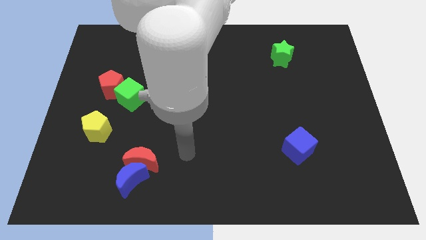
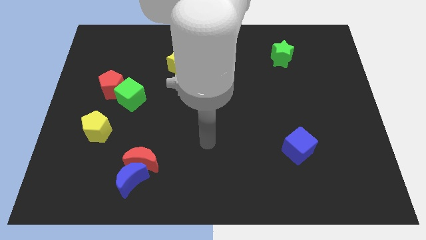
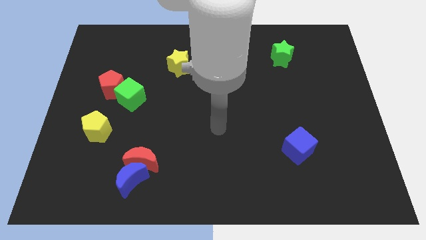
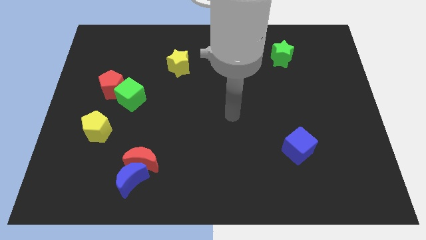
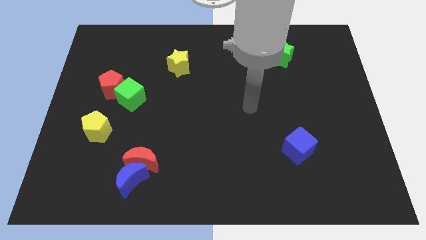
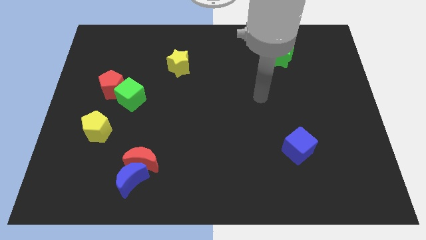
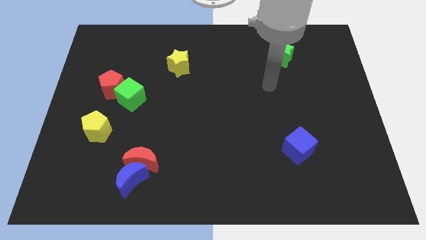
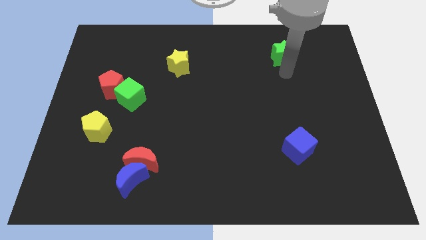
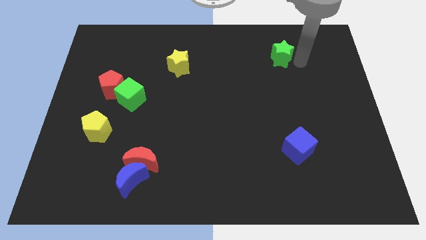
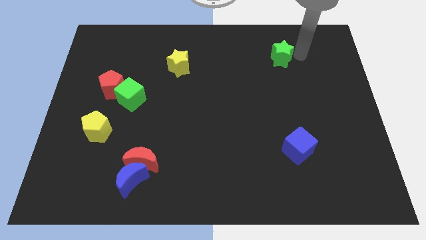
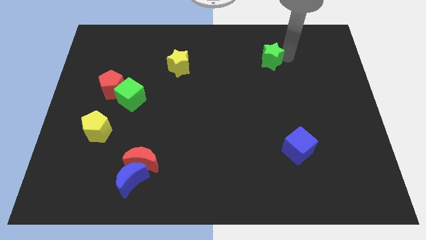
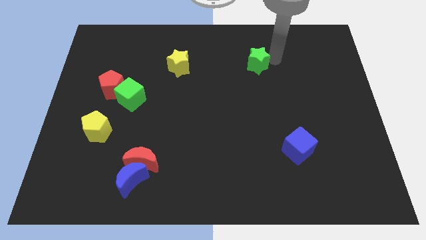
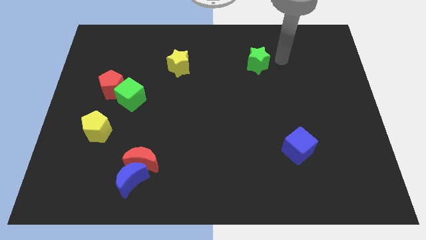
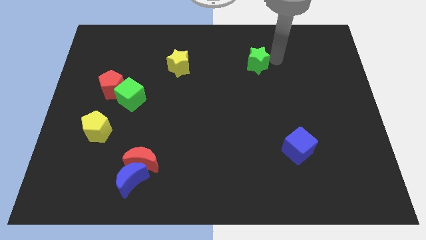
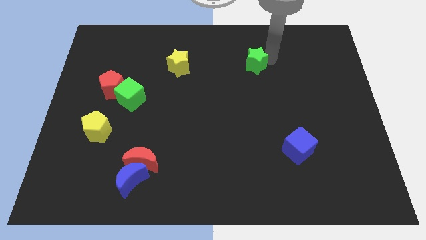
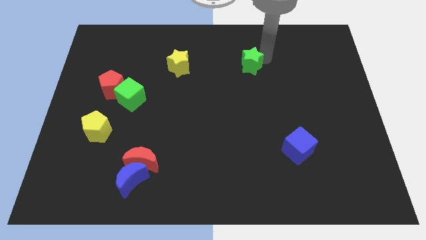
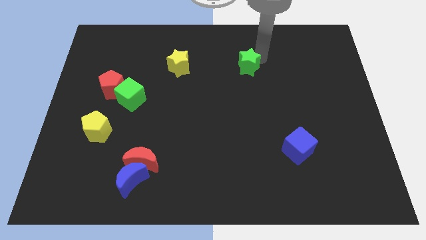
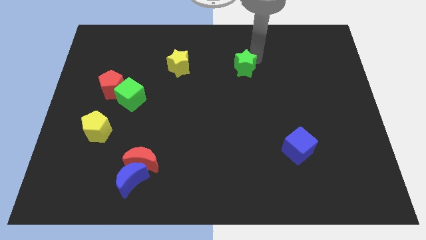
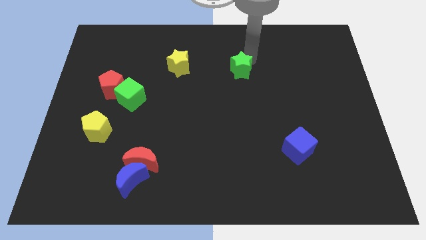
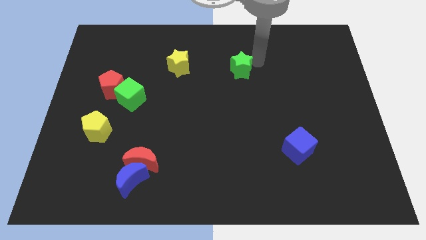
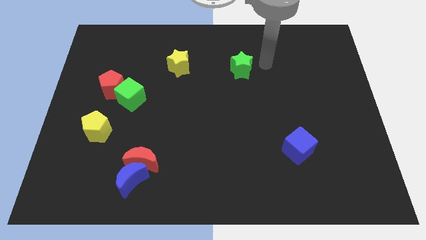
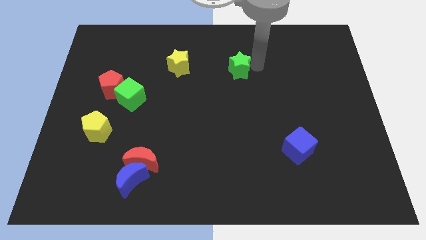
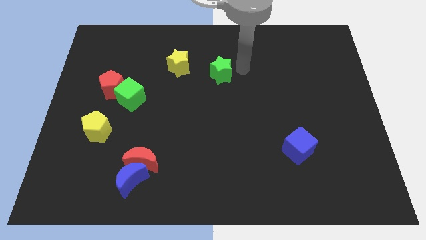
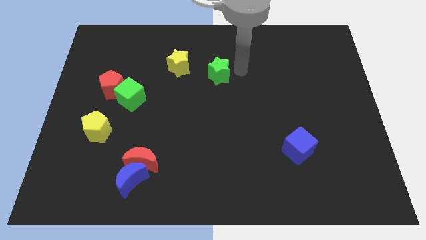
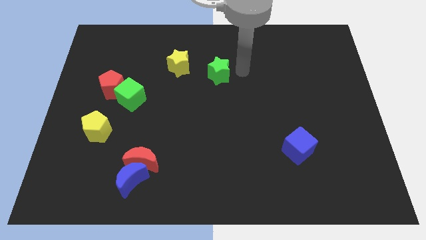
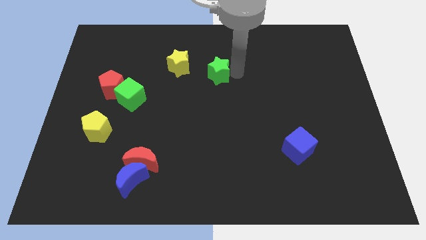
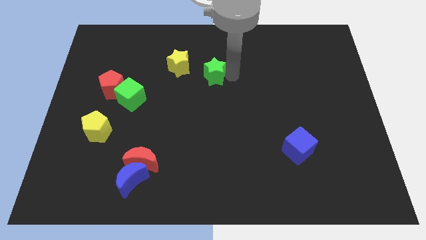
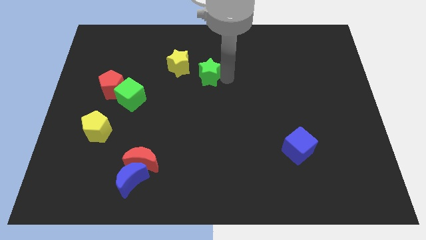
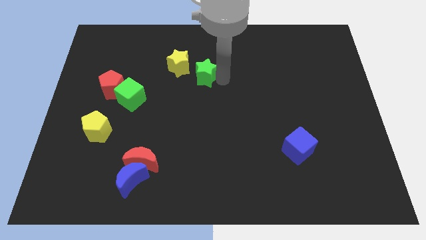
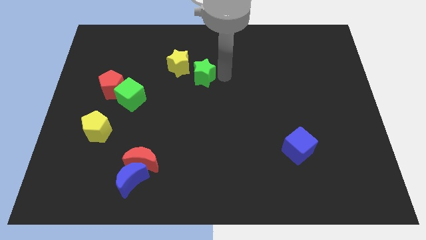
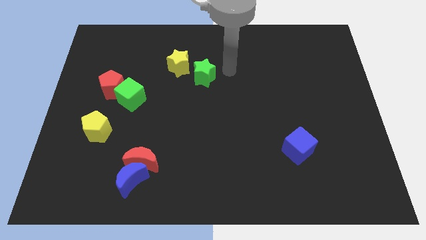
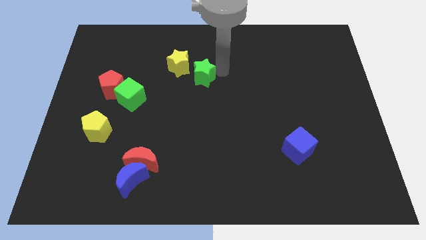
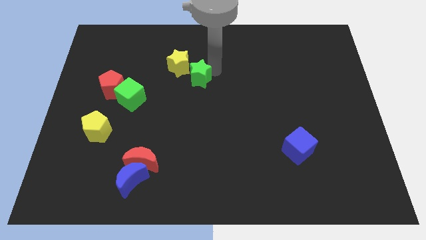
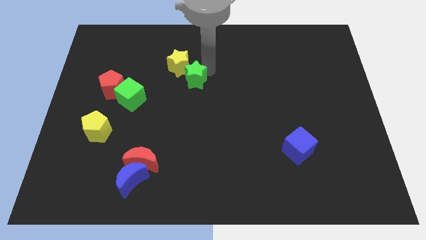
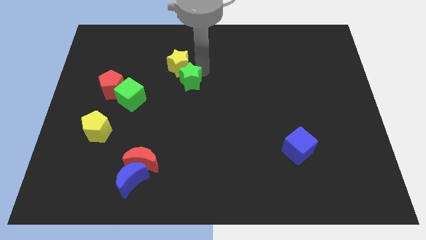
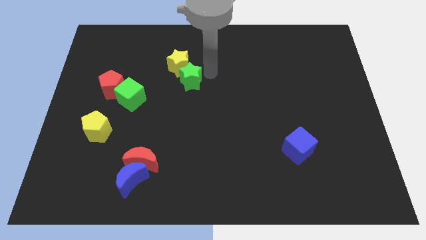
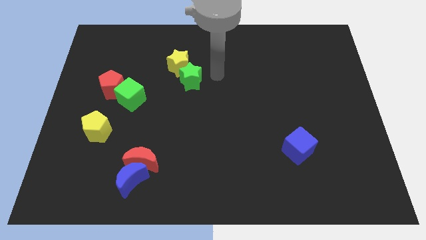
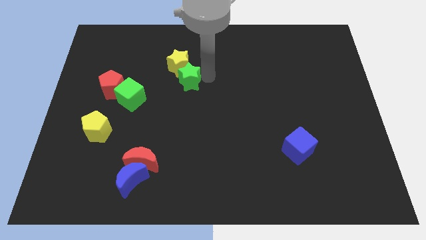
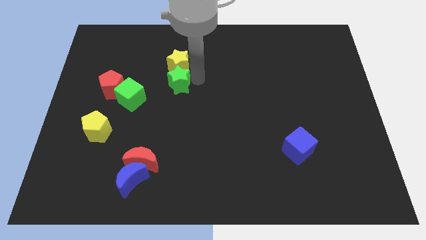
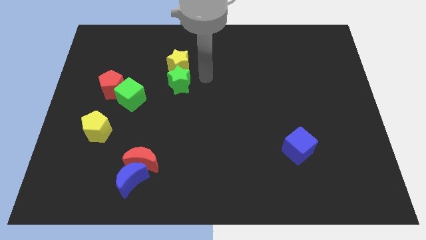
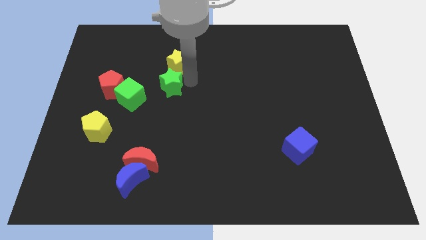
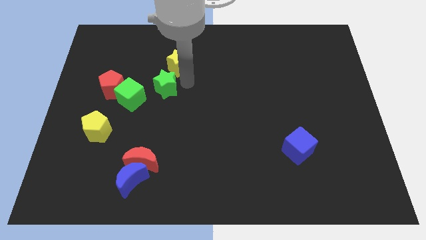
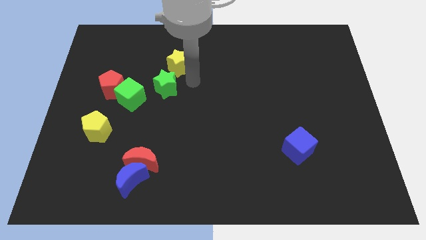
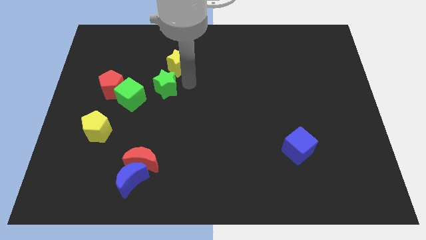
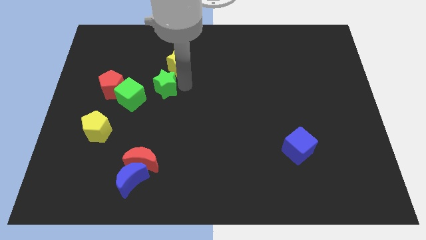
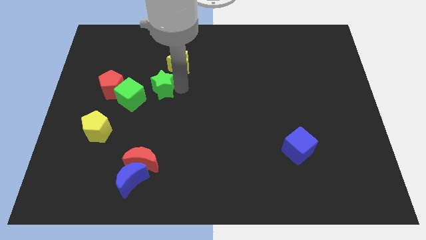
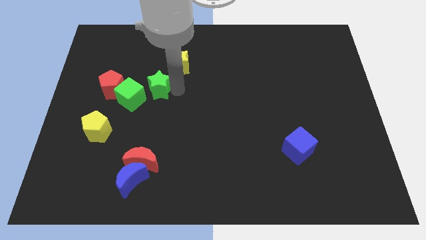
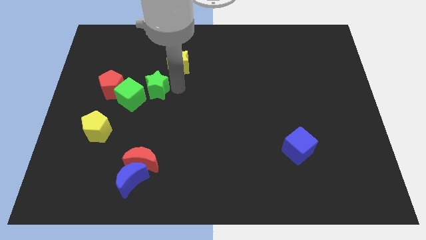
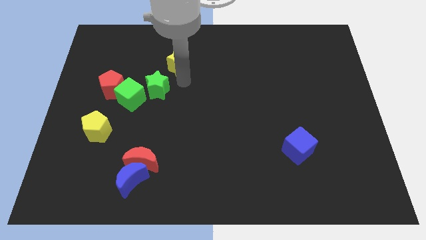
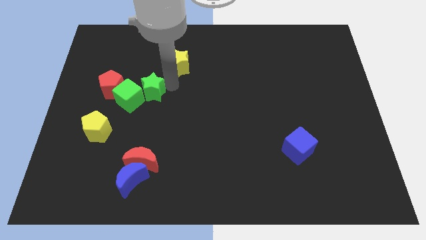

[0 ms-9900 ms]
put the green star towards the green cube
